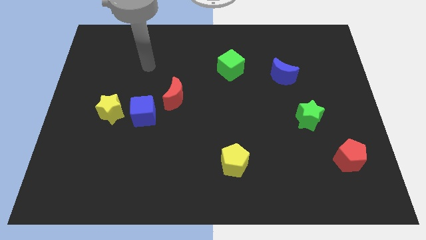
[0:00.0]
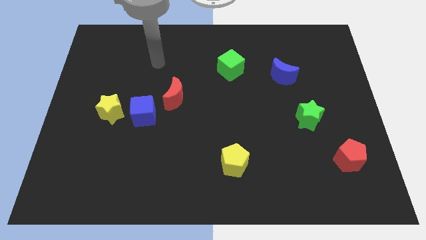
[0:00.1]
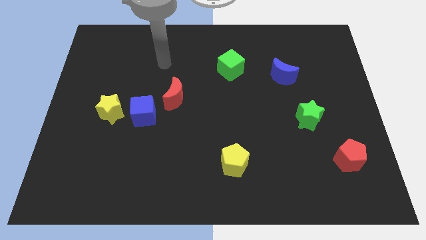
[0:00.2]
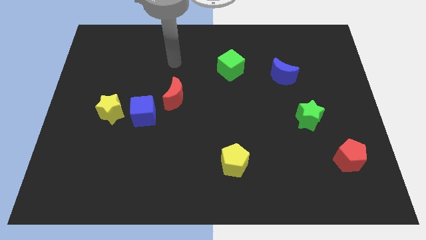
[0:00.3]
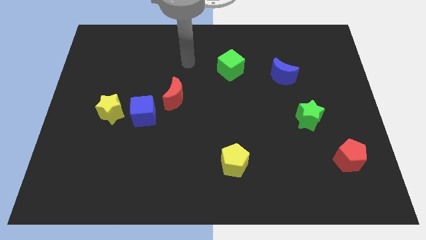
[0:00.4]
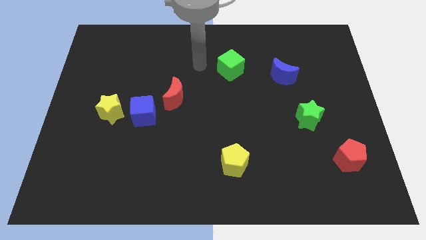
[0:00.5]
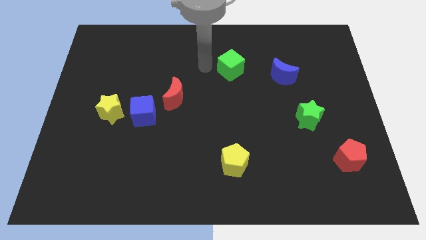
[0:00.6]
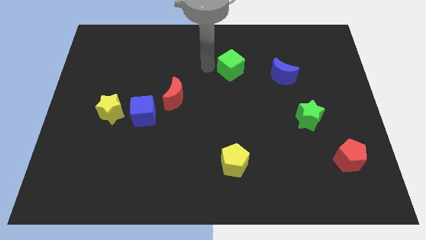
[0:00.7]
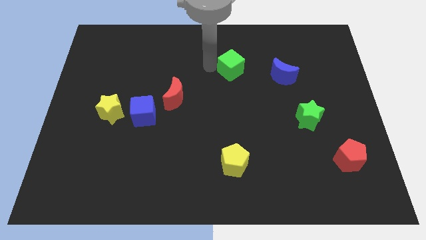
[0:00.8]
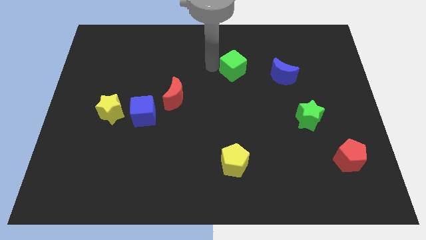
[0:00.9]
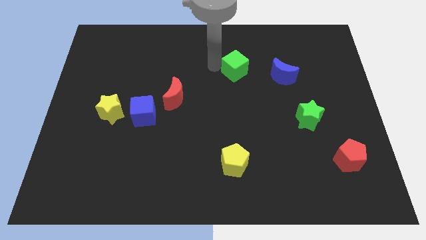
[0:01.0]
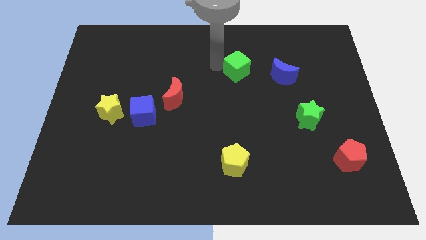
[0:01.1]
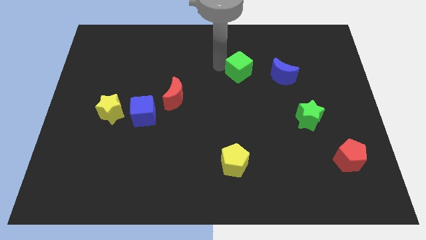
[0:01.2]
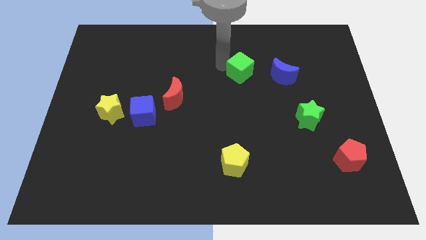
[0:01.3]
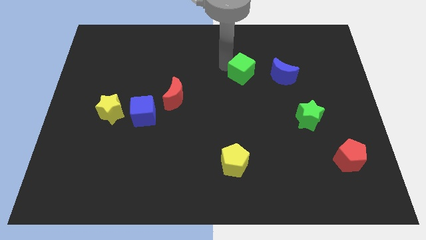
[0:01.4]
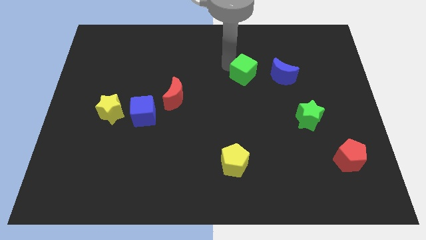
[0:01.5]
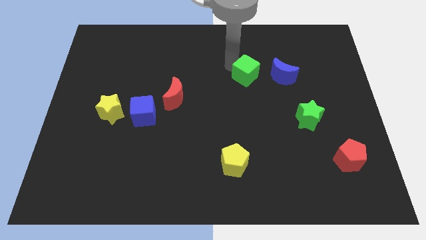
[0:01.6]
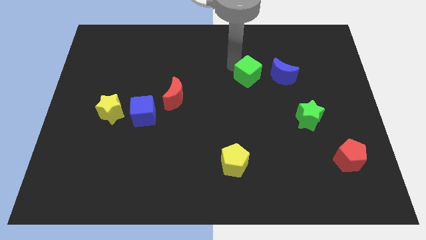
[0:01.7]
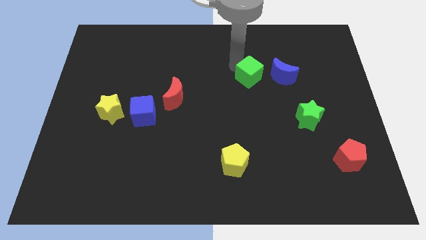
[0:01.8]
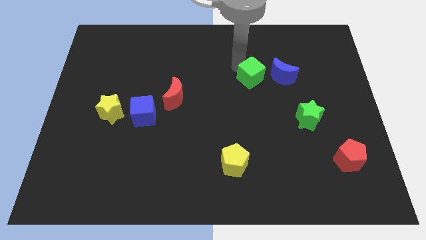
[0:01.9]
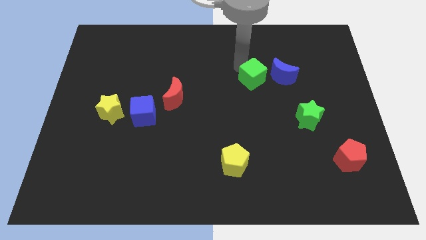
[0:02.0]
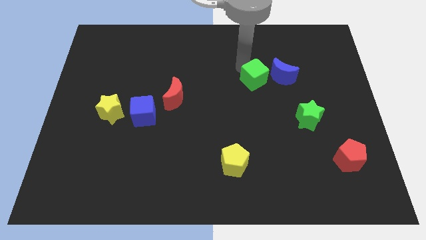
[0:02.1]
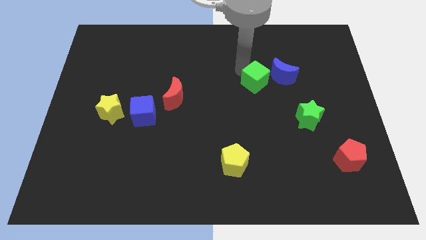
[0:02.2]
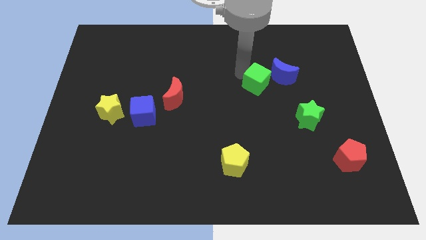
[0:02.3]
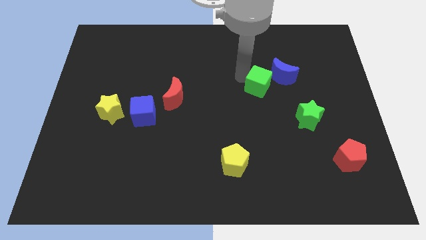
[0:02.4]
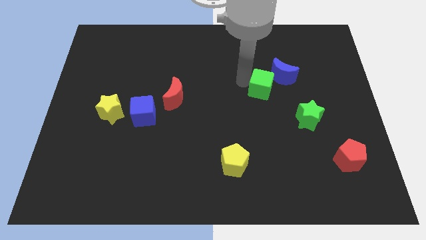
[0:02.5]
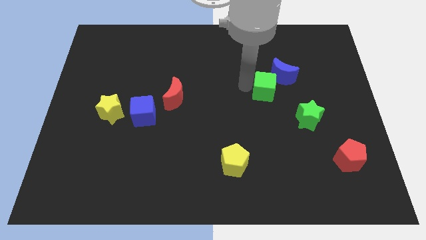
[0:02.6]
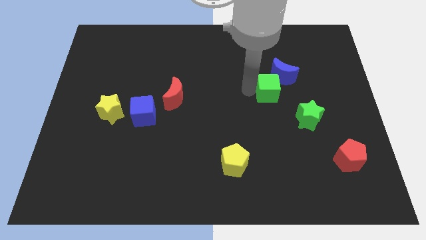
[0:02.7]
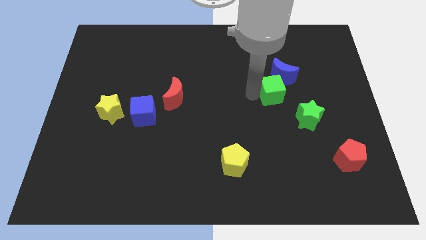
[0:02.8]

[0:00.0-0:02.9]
slide the green cube right slightly

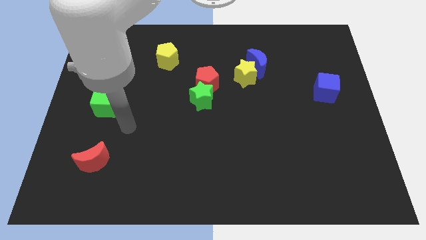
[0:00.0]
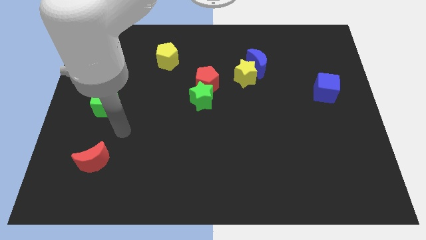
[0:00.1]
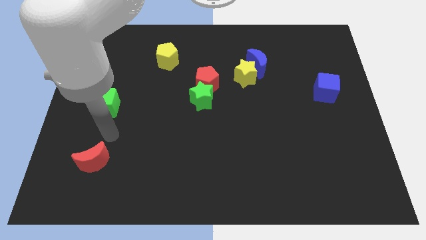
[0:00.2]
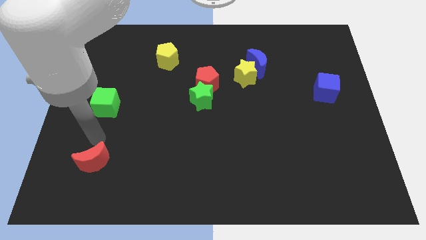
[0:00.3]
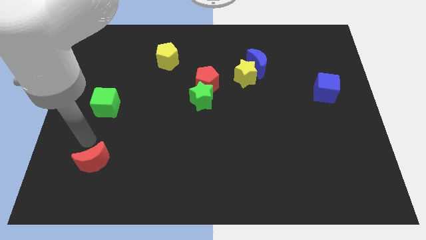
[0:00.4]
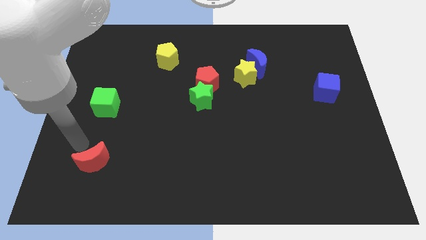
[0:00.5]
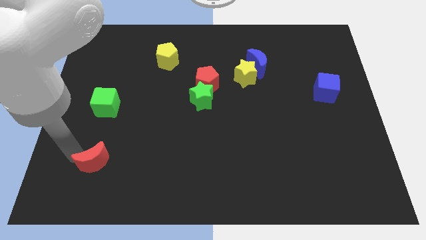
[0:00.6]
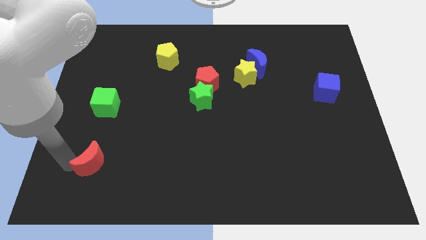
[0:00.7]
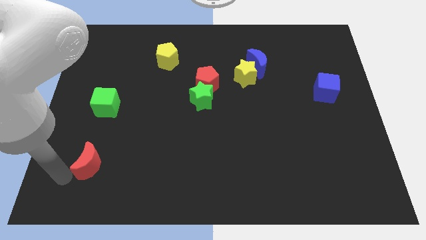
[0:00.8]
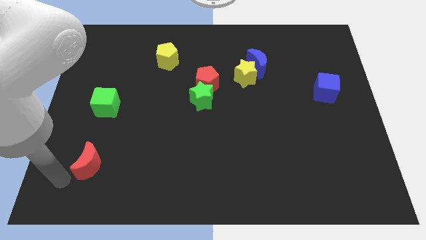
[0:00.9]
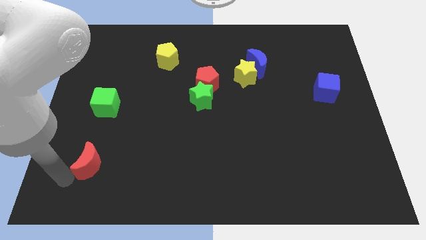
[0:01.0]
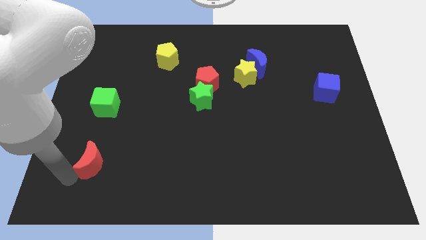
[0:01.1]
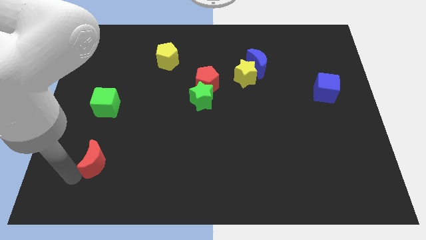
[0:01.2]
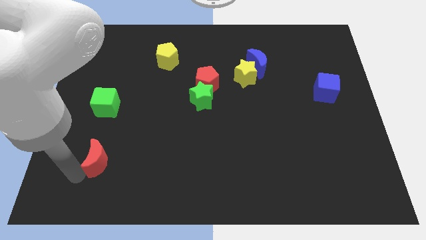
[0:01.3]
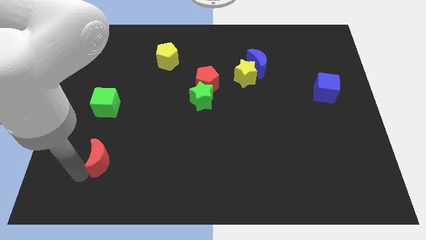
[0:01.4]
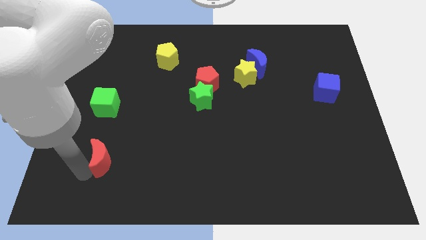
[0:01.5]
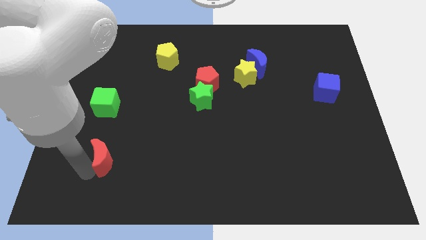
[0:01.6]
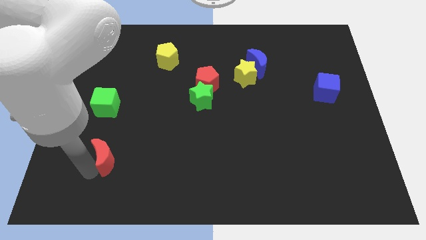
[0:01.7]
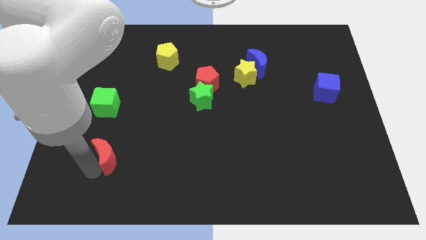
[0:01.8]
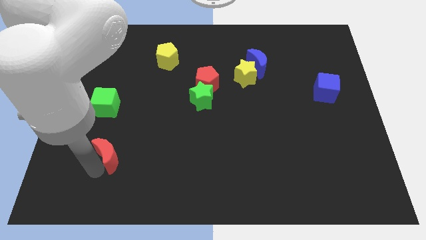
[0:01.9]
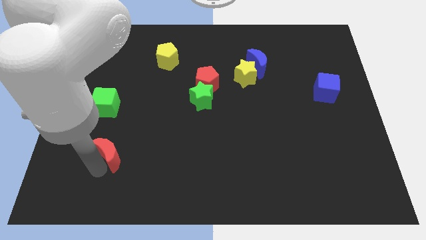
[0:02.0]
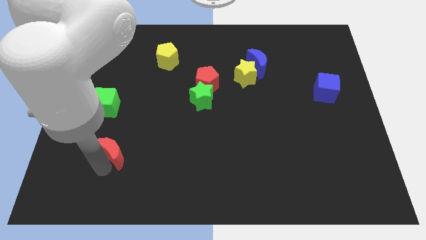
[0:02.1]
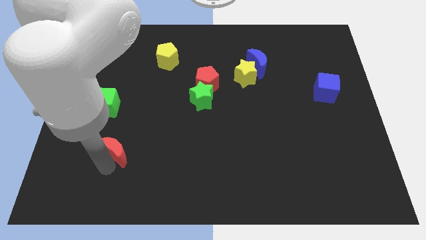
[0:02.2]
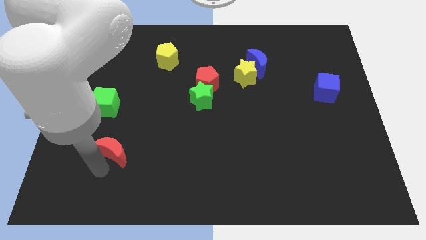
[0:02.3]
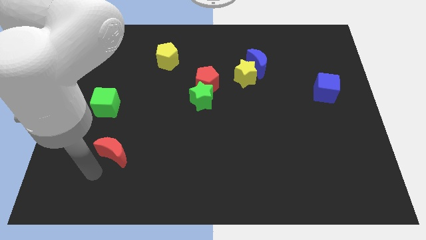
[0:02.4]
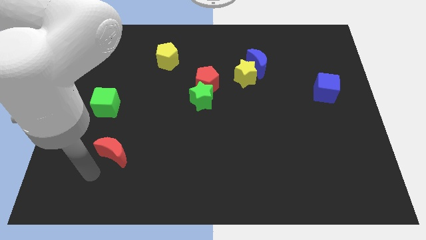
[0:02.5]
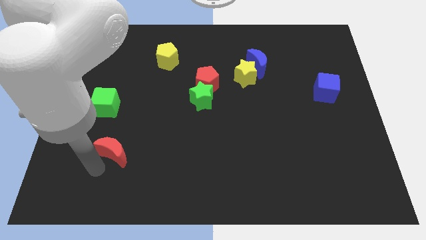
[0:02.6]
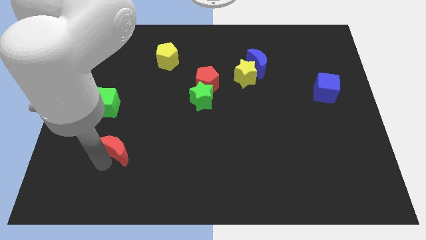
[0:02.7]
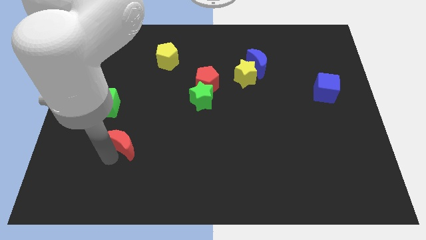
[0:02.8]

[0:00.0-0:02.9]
push the red moon diagonally up and right a little

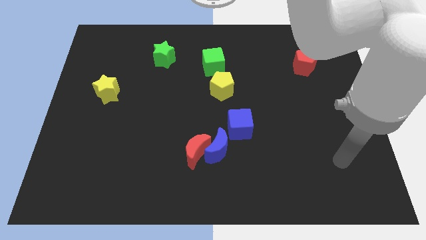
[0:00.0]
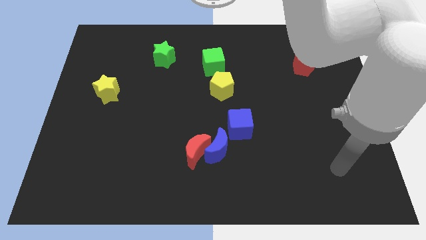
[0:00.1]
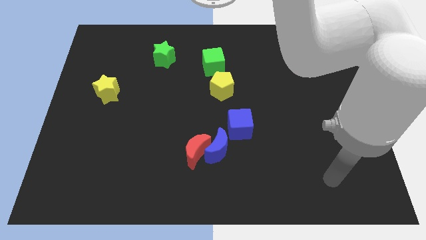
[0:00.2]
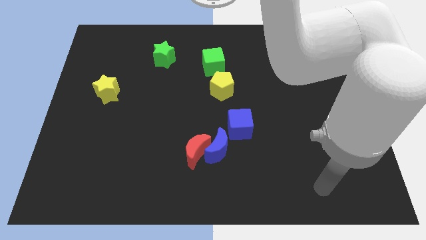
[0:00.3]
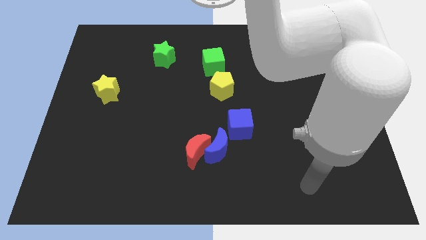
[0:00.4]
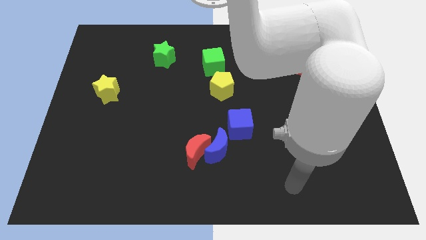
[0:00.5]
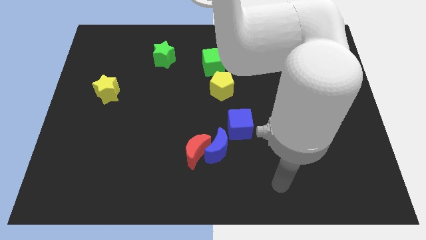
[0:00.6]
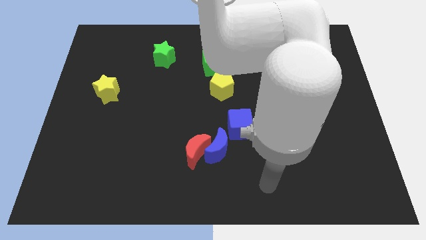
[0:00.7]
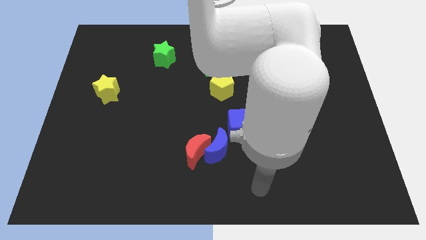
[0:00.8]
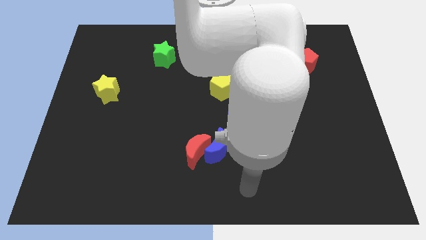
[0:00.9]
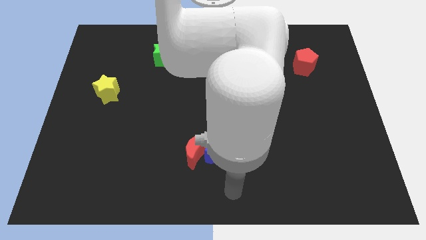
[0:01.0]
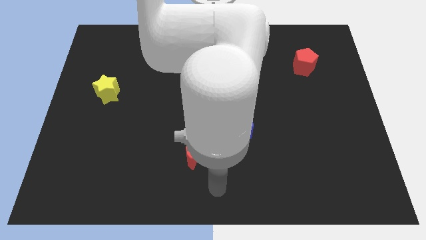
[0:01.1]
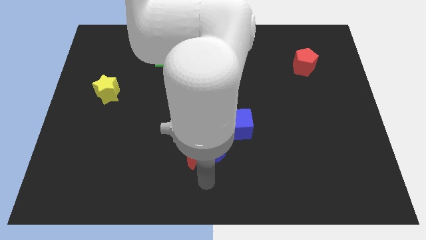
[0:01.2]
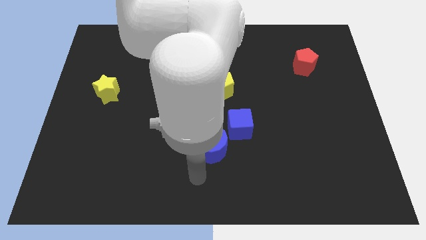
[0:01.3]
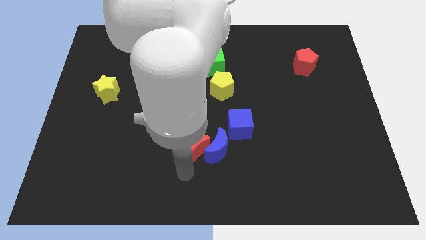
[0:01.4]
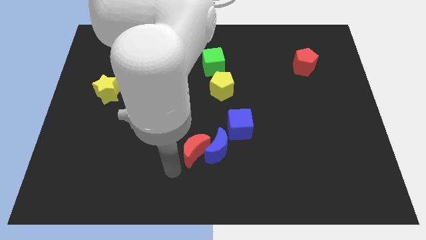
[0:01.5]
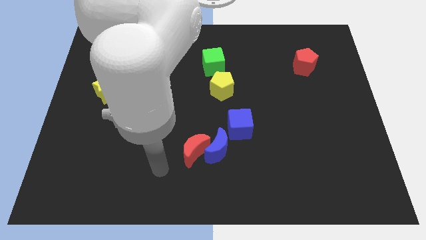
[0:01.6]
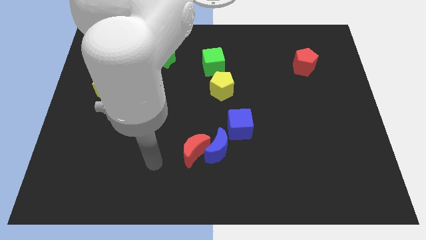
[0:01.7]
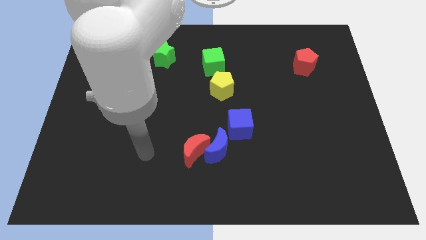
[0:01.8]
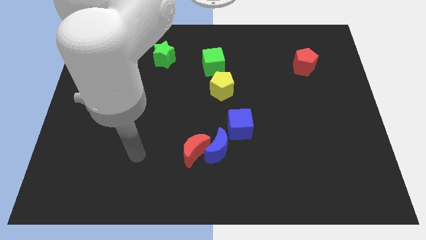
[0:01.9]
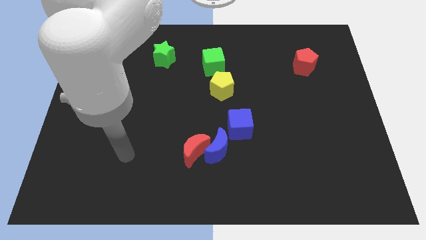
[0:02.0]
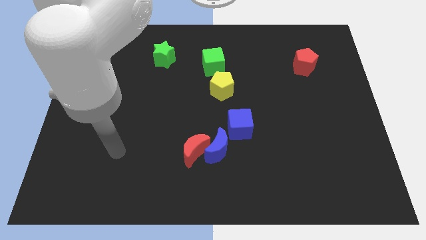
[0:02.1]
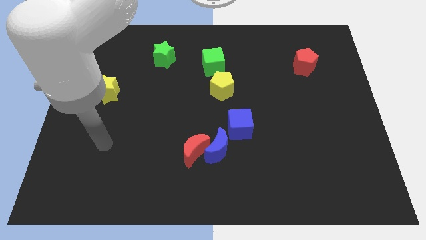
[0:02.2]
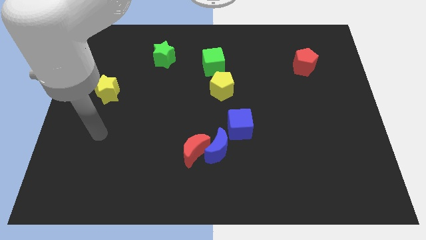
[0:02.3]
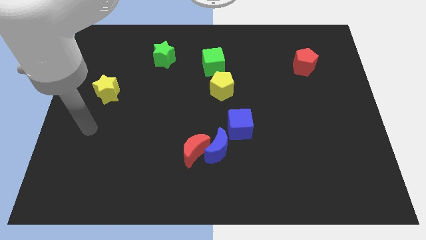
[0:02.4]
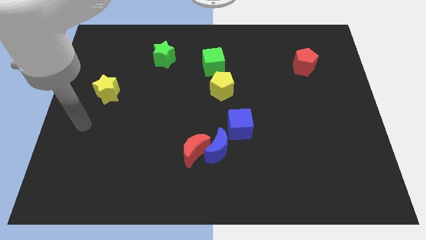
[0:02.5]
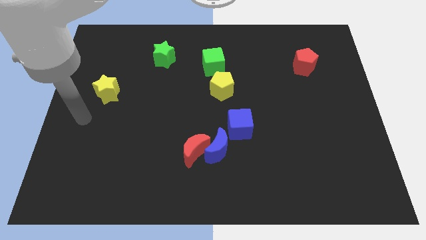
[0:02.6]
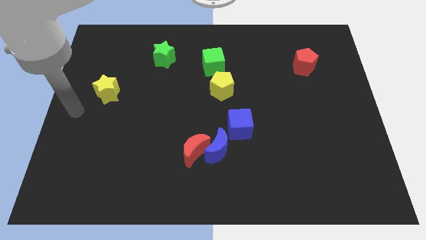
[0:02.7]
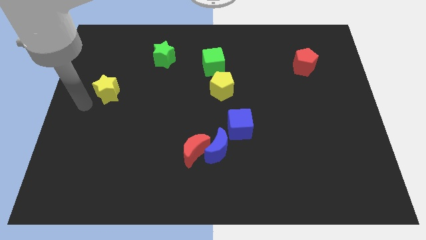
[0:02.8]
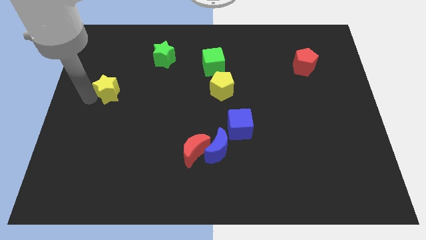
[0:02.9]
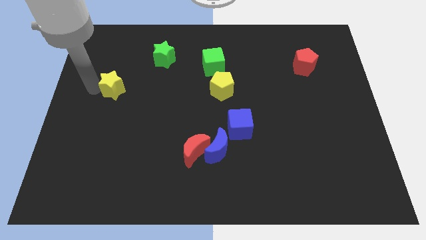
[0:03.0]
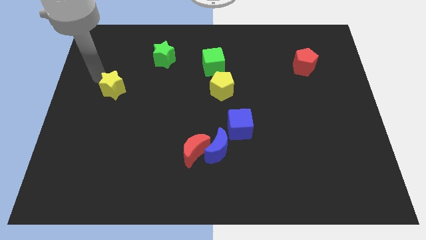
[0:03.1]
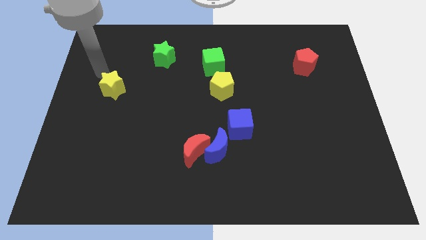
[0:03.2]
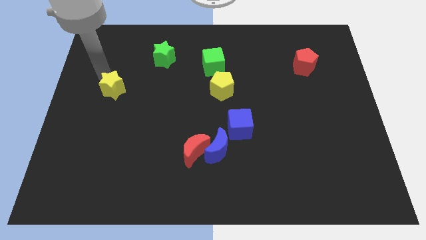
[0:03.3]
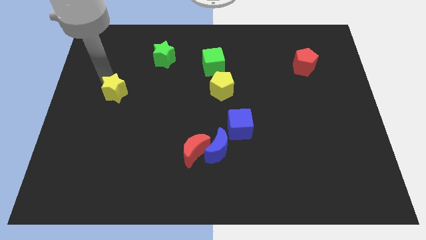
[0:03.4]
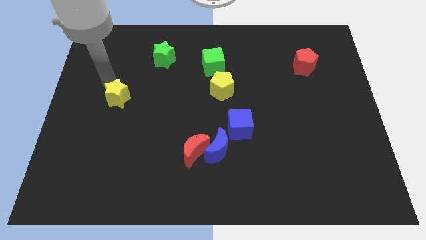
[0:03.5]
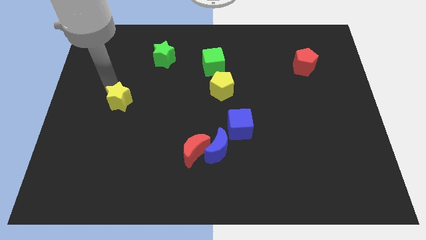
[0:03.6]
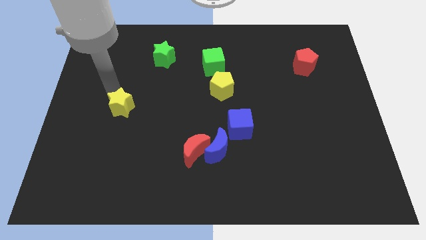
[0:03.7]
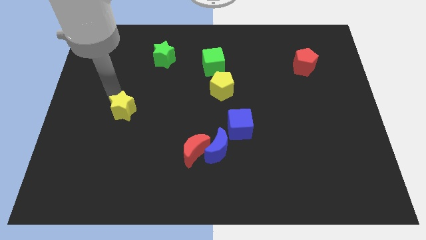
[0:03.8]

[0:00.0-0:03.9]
slightly move the yellow star downwards and right diagonally
